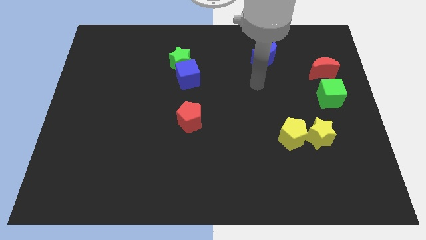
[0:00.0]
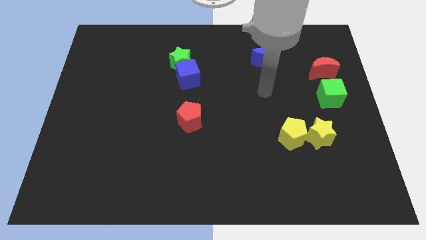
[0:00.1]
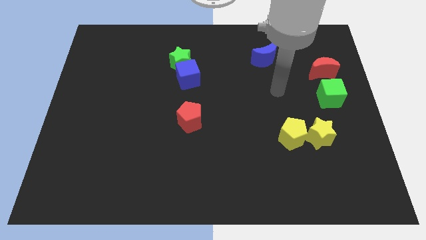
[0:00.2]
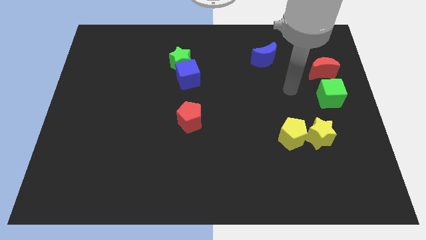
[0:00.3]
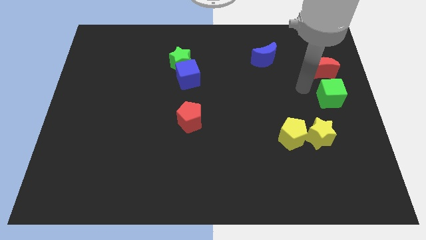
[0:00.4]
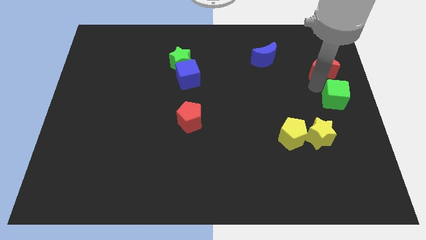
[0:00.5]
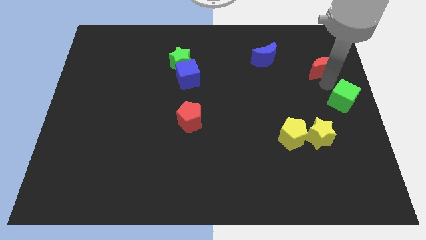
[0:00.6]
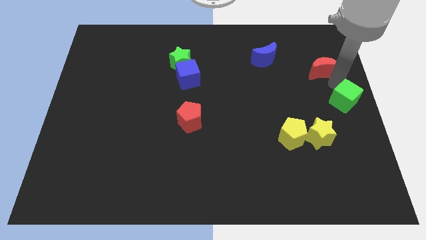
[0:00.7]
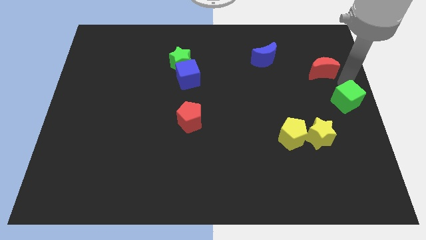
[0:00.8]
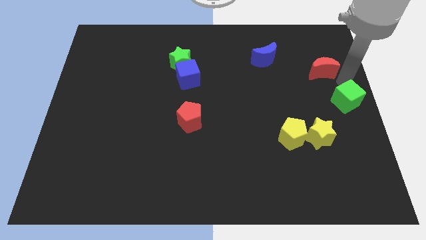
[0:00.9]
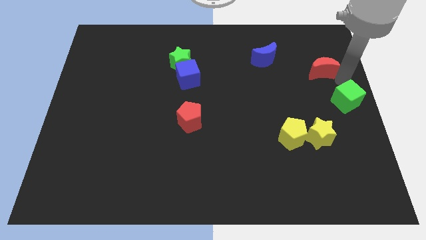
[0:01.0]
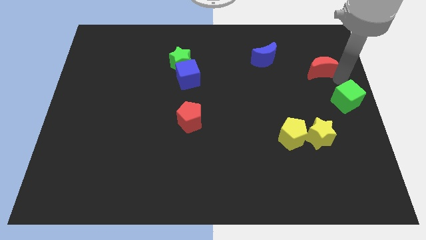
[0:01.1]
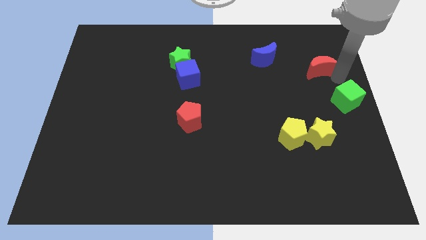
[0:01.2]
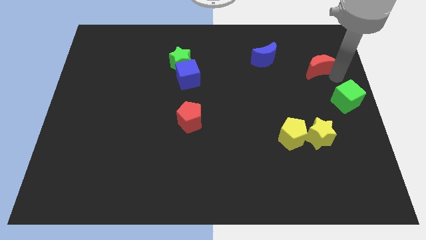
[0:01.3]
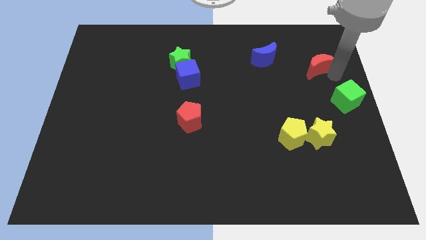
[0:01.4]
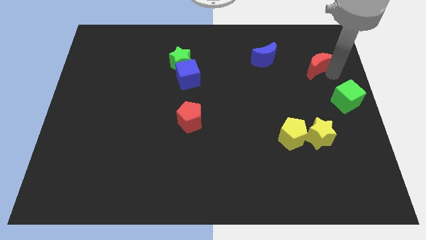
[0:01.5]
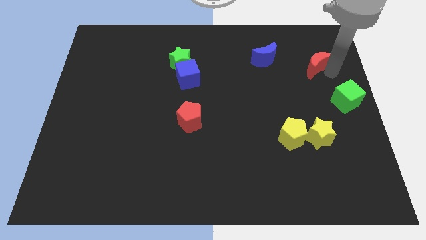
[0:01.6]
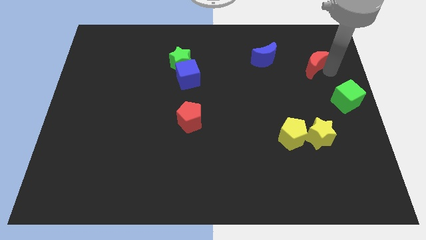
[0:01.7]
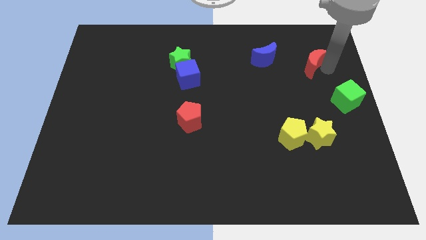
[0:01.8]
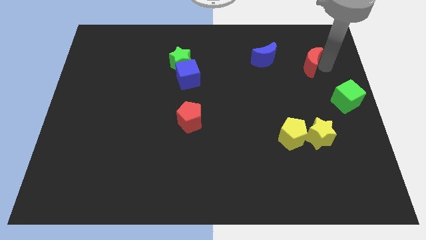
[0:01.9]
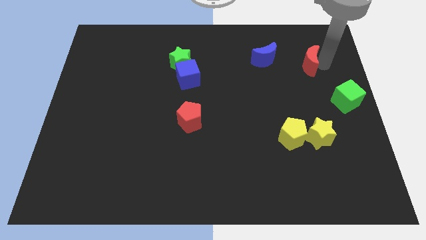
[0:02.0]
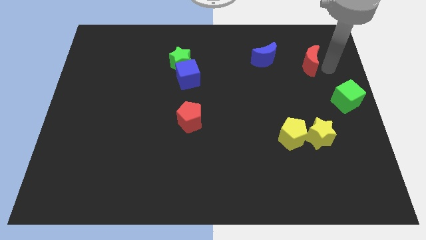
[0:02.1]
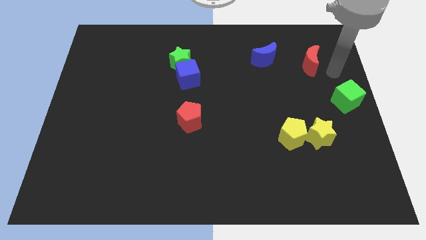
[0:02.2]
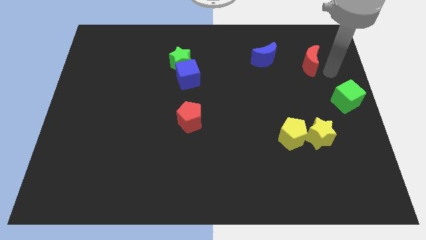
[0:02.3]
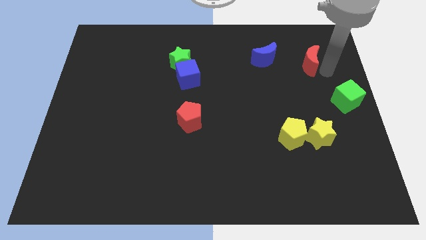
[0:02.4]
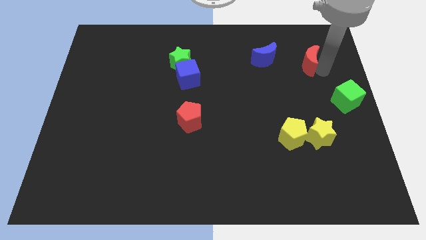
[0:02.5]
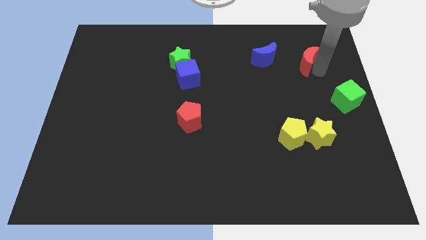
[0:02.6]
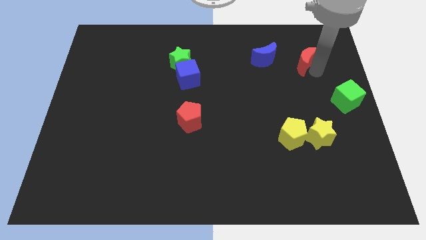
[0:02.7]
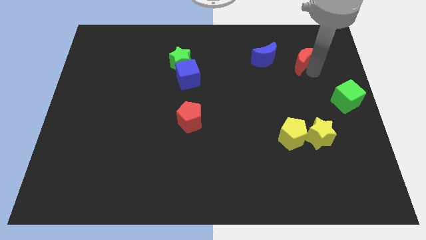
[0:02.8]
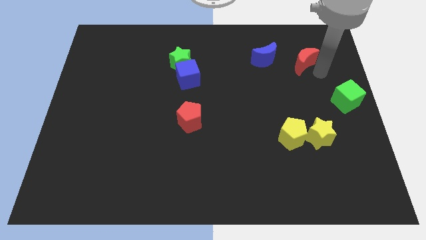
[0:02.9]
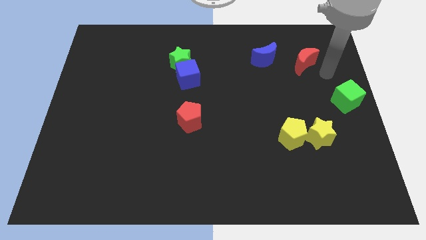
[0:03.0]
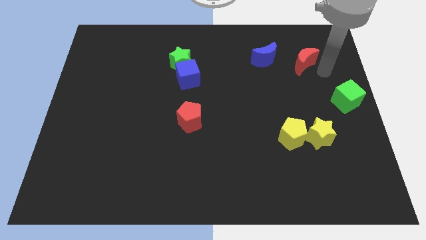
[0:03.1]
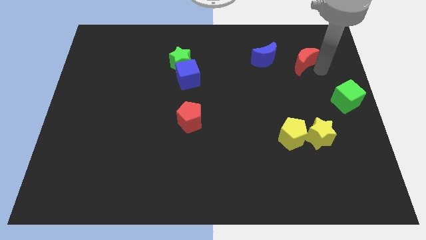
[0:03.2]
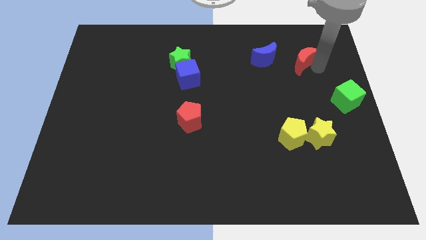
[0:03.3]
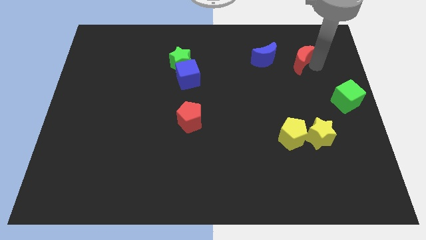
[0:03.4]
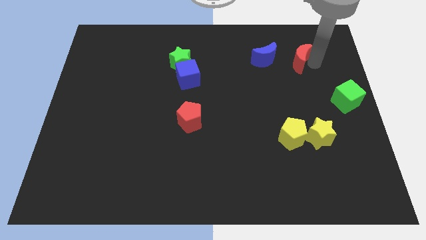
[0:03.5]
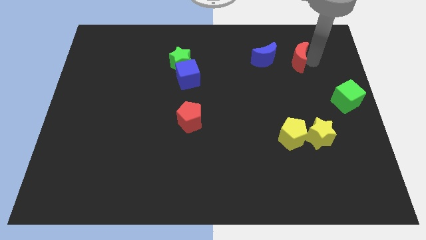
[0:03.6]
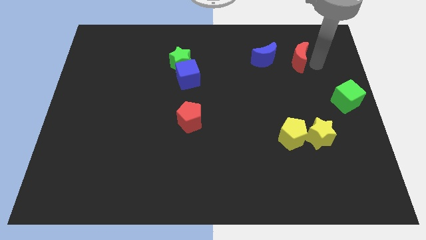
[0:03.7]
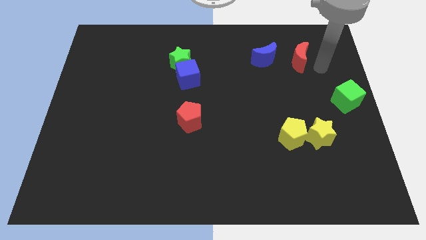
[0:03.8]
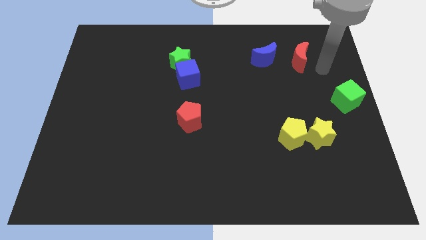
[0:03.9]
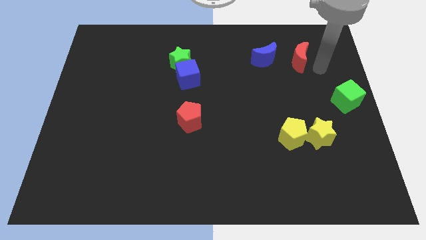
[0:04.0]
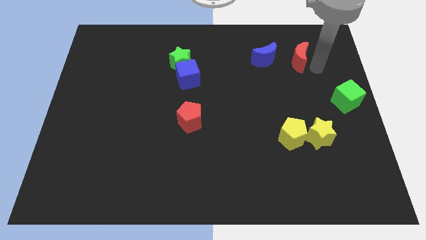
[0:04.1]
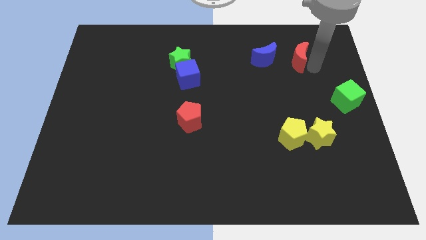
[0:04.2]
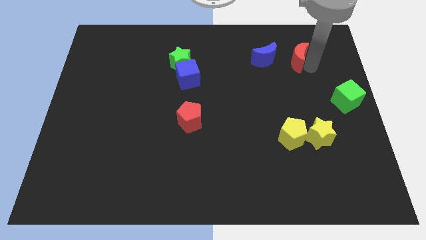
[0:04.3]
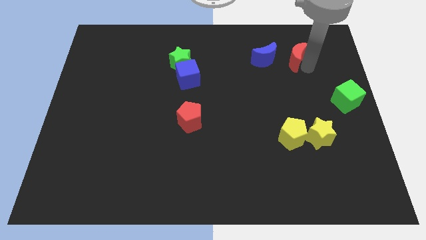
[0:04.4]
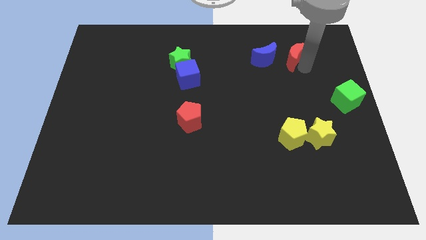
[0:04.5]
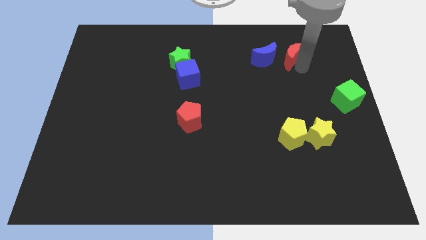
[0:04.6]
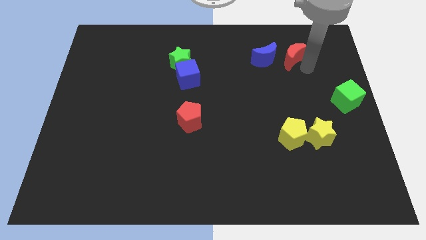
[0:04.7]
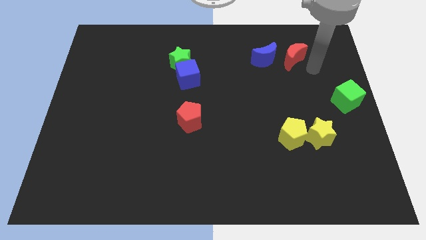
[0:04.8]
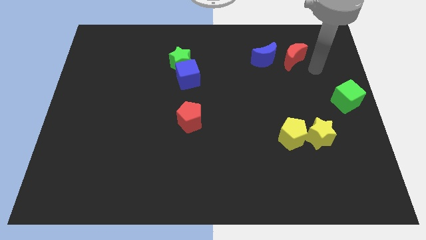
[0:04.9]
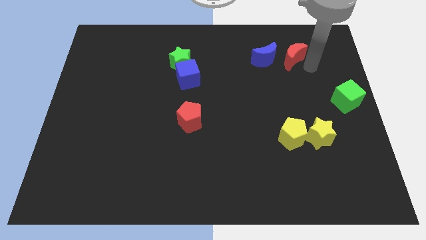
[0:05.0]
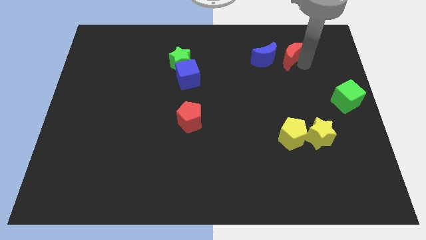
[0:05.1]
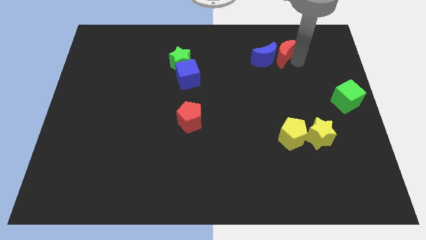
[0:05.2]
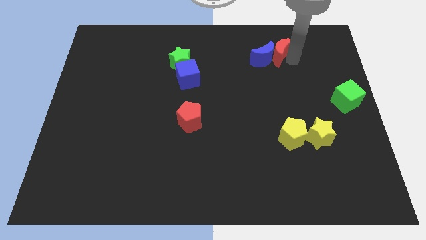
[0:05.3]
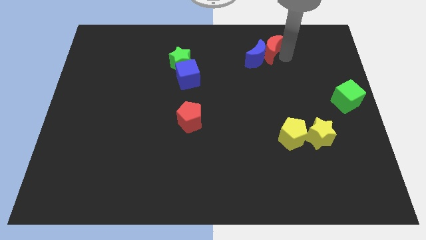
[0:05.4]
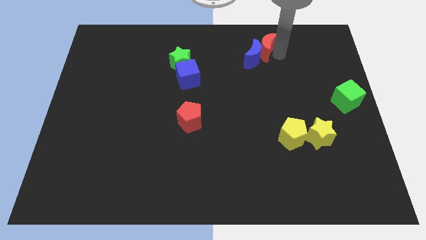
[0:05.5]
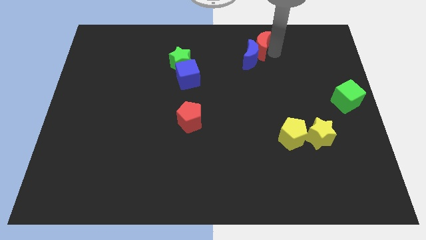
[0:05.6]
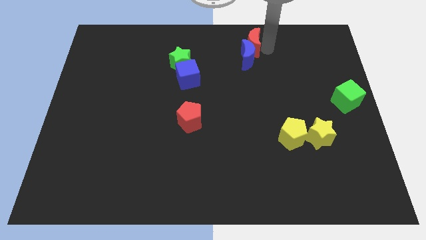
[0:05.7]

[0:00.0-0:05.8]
slide the red moon to the towards your base
